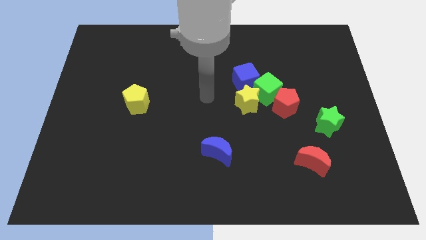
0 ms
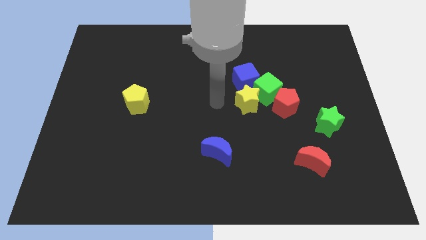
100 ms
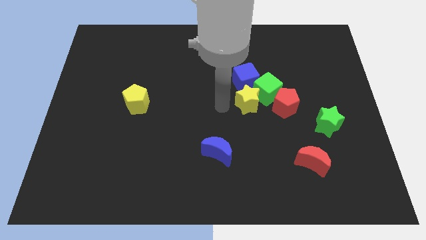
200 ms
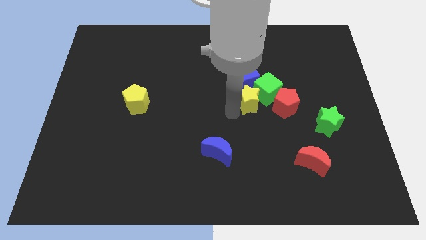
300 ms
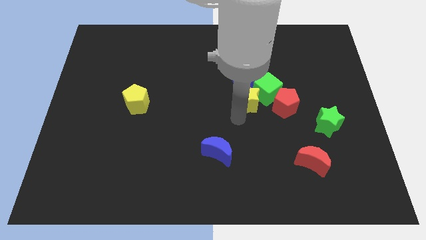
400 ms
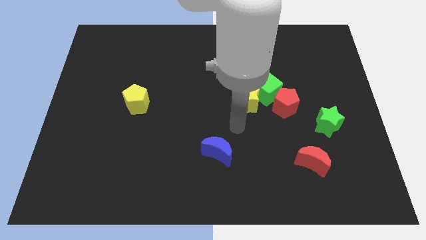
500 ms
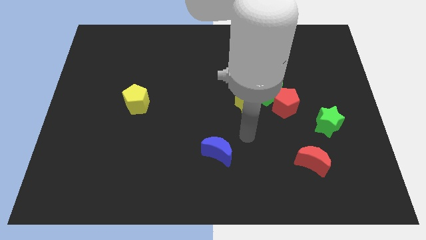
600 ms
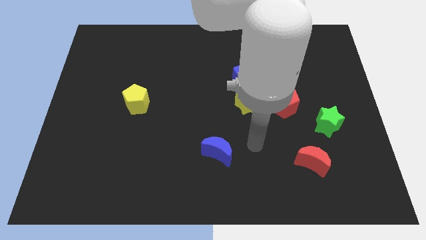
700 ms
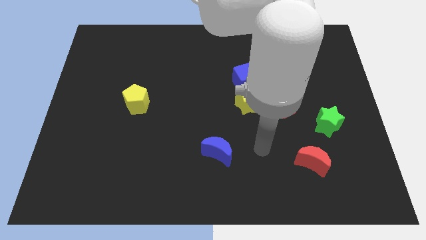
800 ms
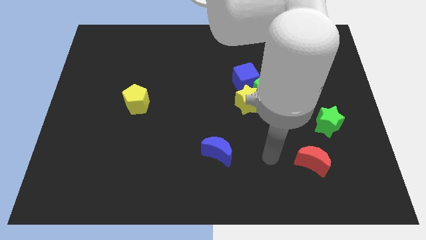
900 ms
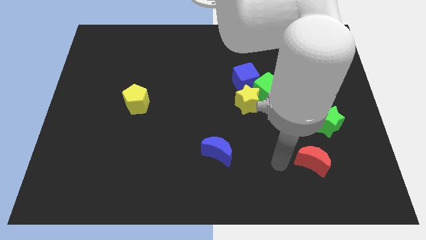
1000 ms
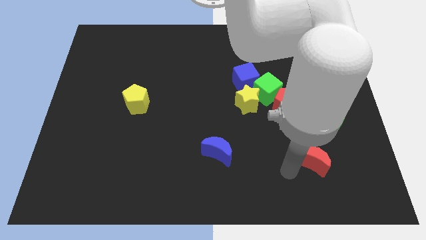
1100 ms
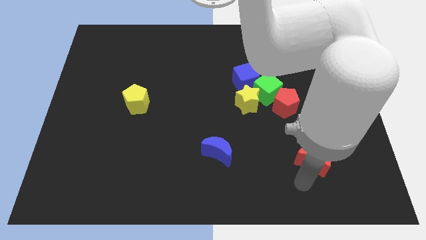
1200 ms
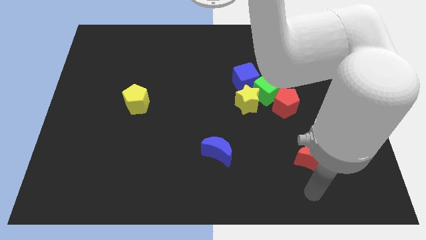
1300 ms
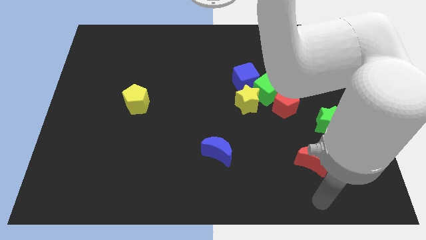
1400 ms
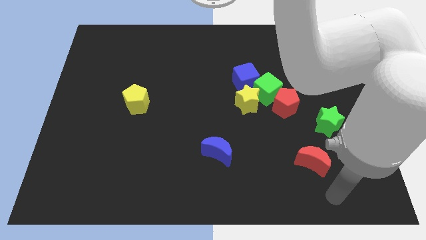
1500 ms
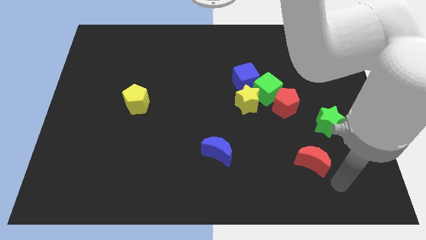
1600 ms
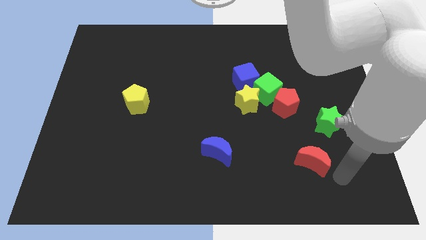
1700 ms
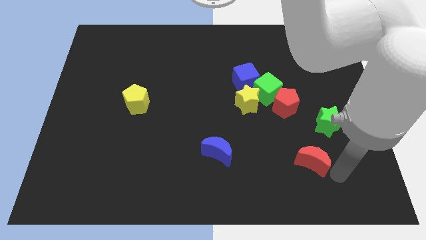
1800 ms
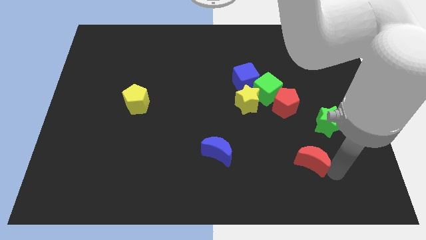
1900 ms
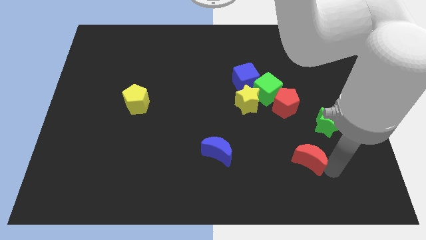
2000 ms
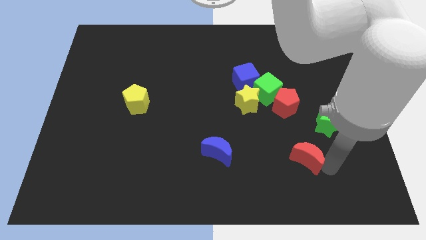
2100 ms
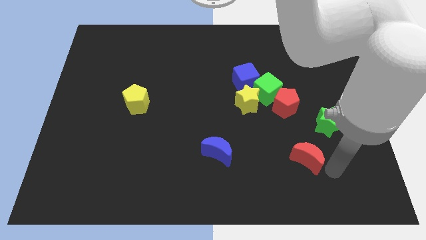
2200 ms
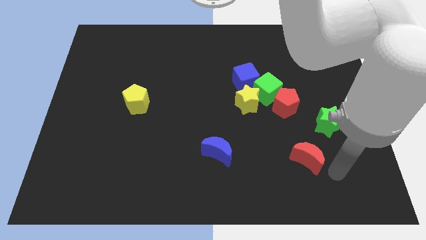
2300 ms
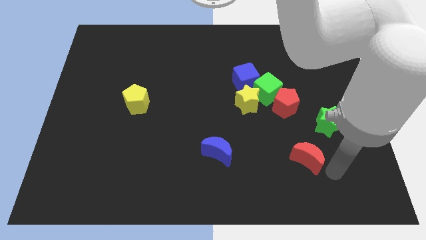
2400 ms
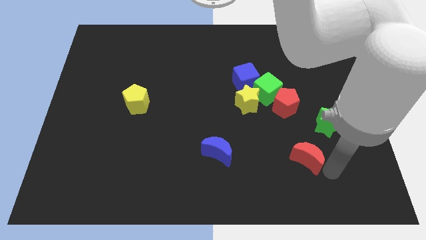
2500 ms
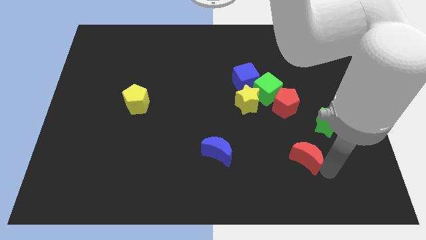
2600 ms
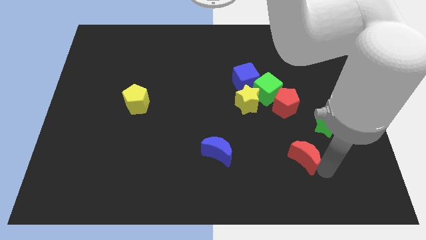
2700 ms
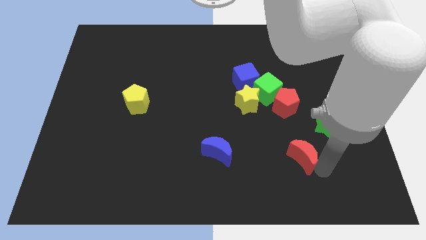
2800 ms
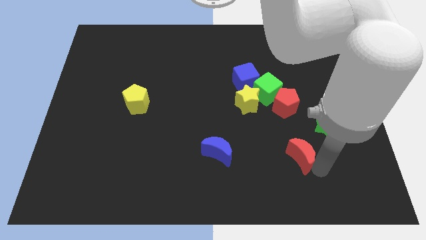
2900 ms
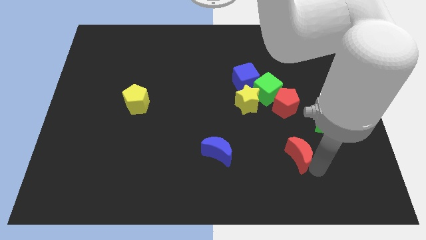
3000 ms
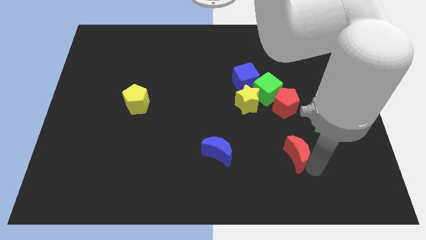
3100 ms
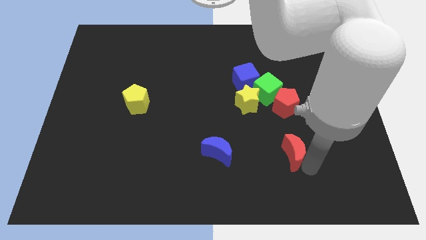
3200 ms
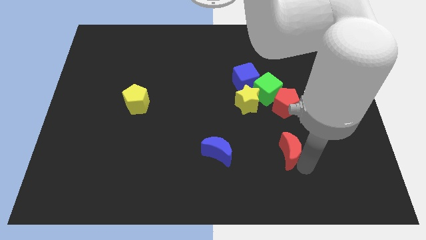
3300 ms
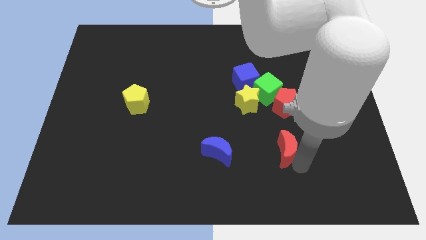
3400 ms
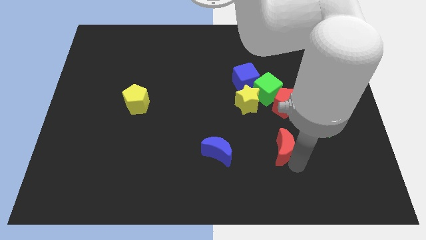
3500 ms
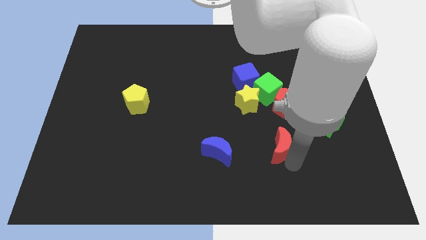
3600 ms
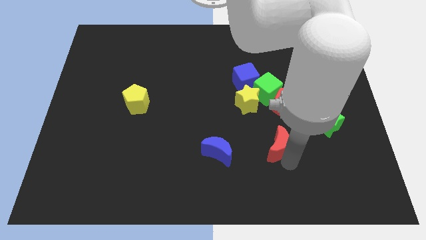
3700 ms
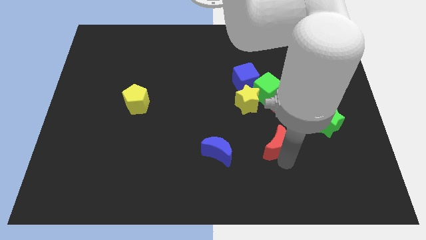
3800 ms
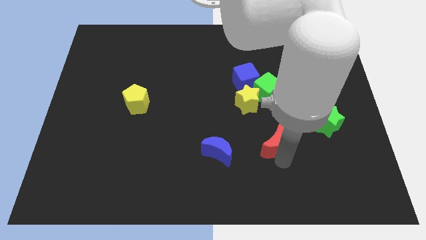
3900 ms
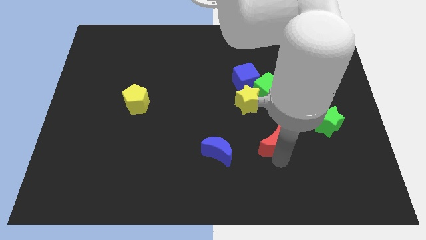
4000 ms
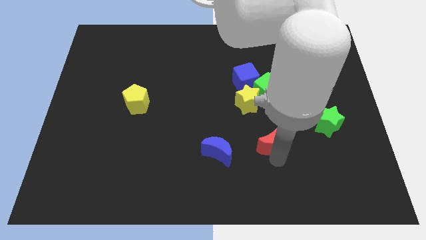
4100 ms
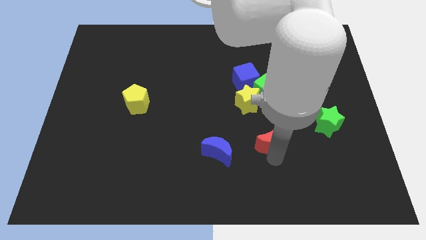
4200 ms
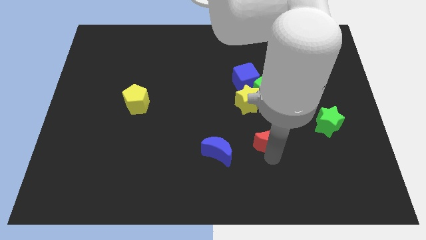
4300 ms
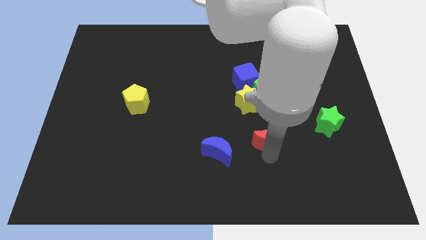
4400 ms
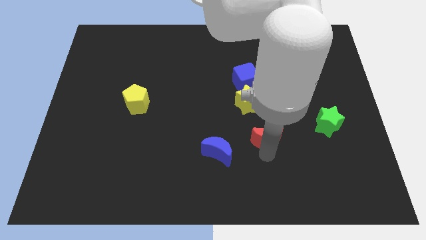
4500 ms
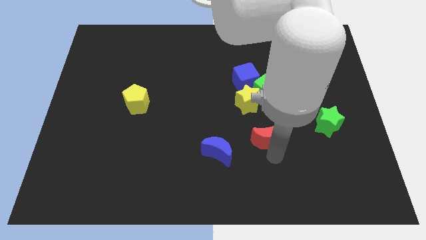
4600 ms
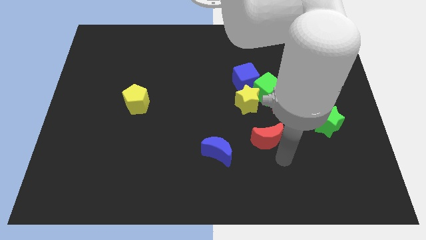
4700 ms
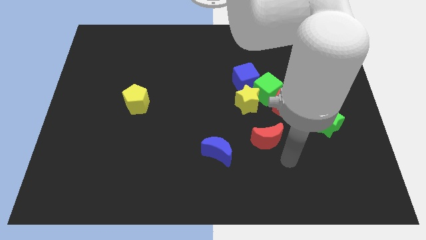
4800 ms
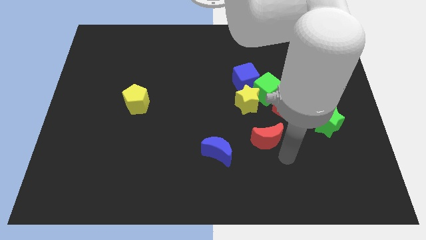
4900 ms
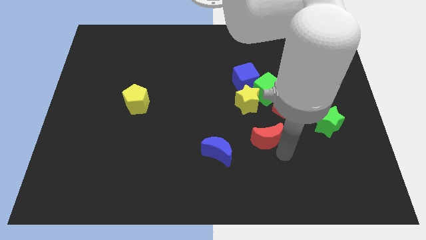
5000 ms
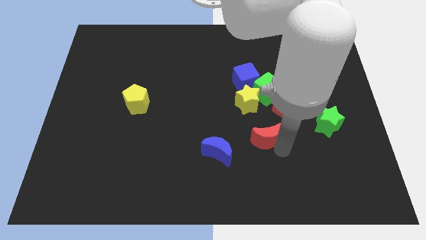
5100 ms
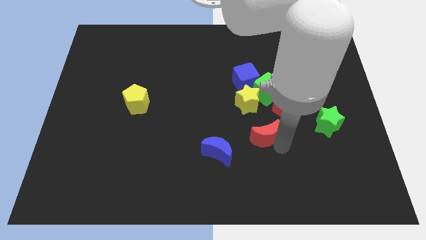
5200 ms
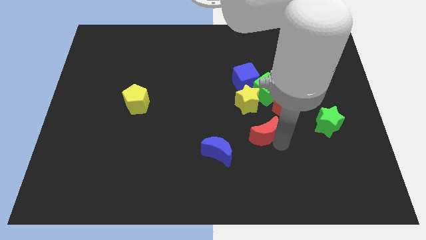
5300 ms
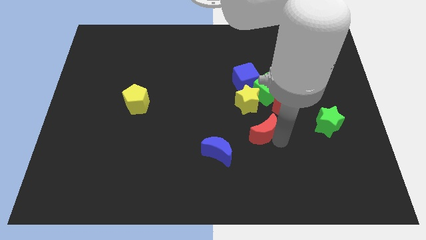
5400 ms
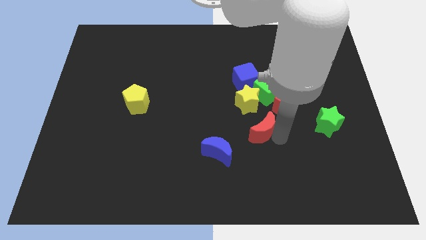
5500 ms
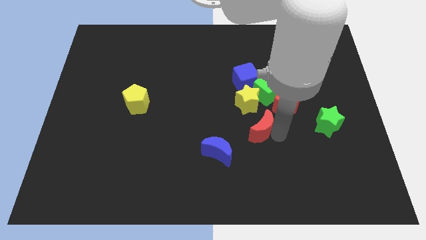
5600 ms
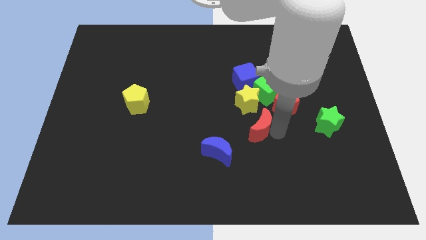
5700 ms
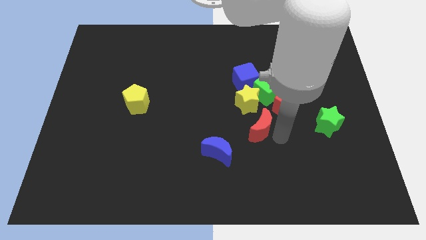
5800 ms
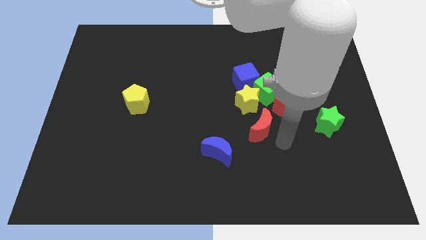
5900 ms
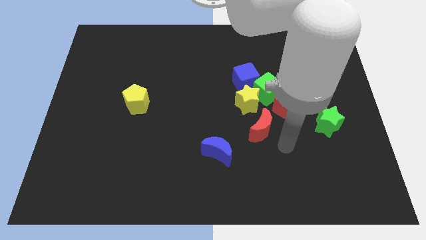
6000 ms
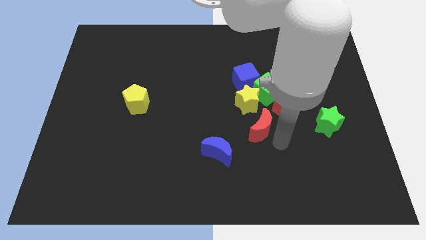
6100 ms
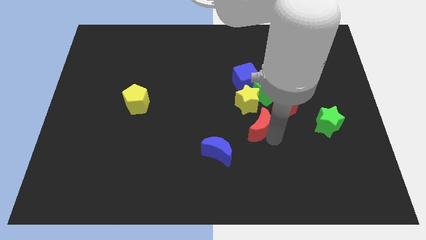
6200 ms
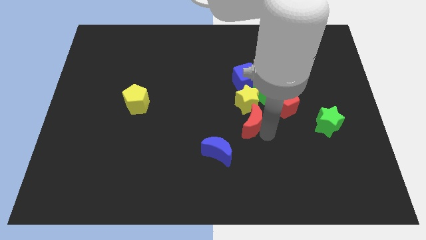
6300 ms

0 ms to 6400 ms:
move the red moon to the middle
